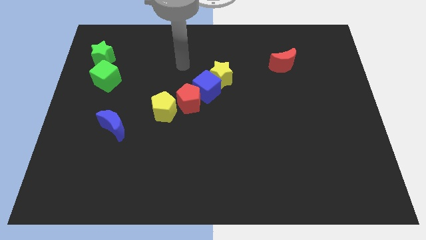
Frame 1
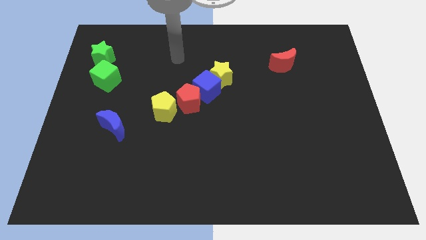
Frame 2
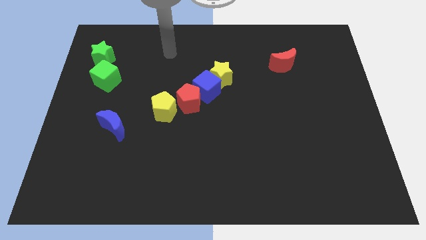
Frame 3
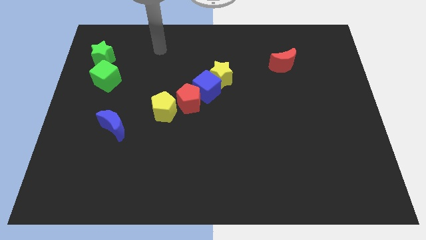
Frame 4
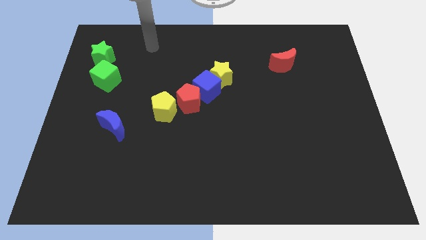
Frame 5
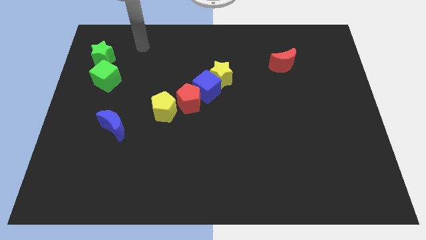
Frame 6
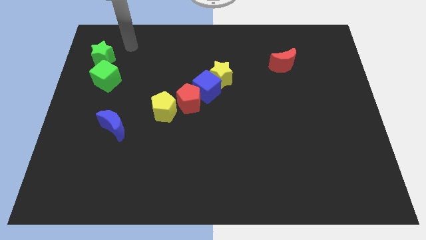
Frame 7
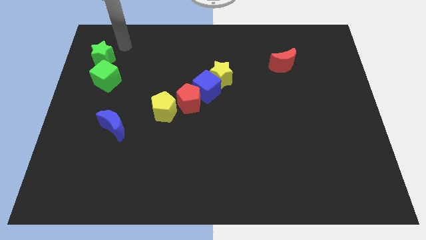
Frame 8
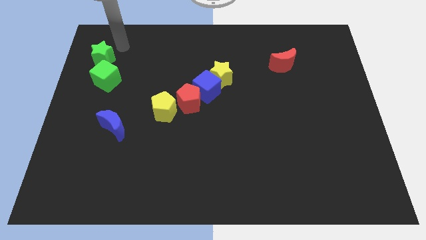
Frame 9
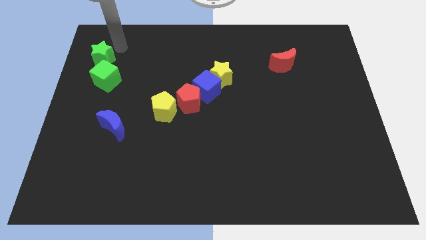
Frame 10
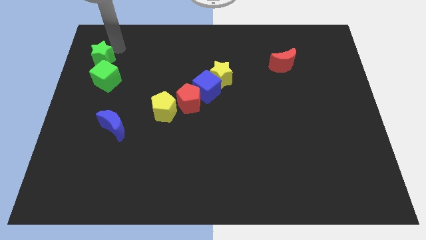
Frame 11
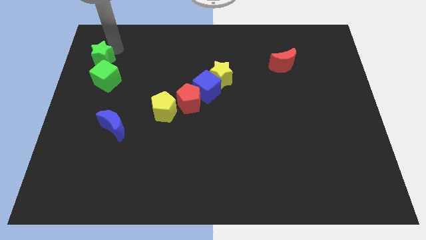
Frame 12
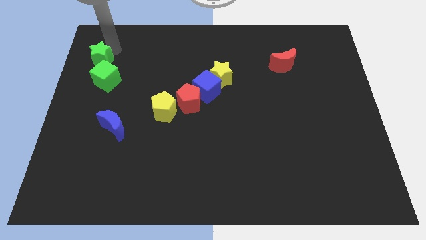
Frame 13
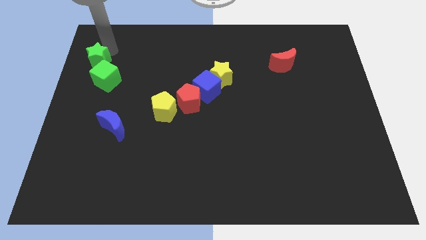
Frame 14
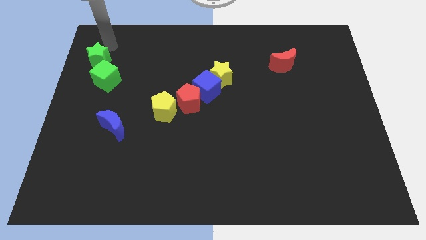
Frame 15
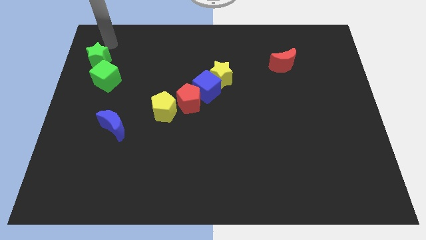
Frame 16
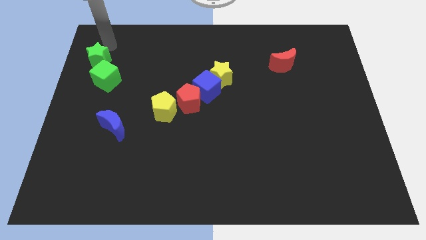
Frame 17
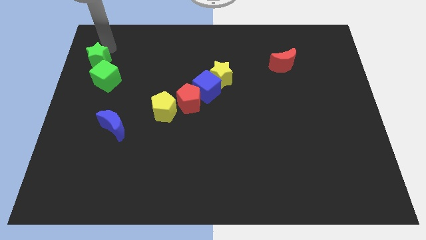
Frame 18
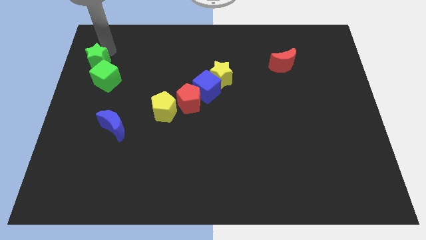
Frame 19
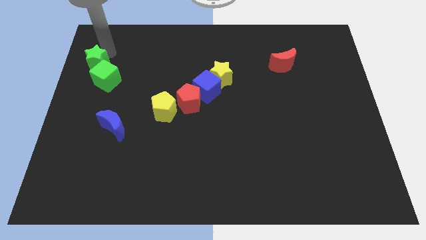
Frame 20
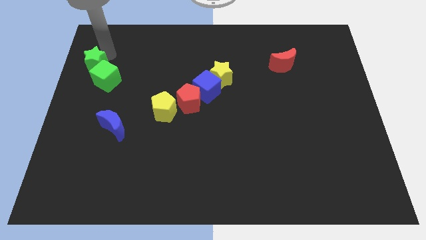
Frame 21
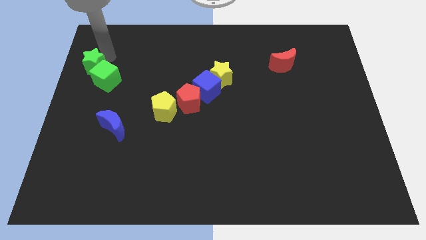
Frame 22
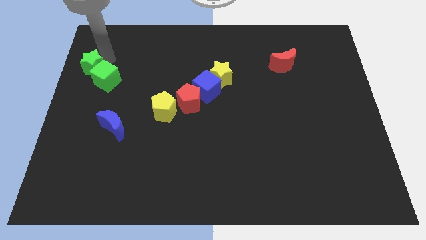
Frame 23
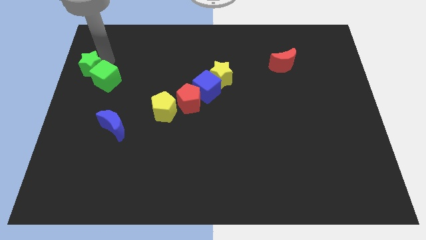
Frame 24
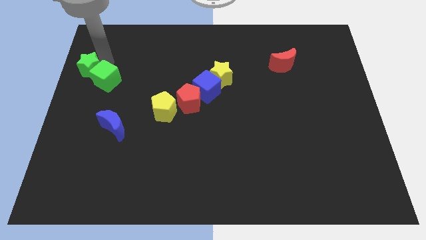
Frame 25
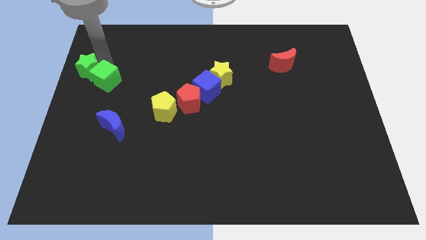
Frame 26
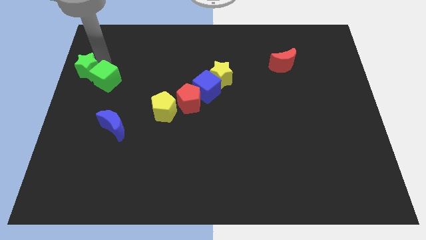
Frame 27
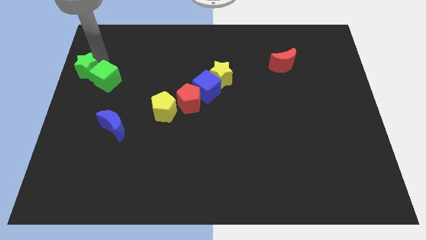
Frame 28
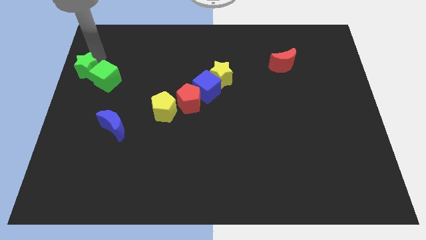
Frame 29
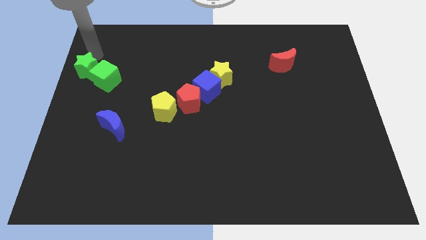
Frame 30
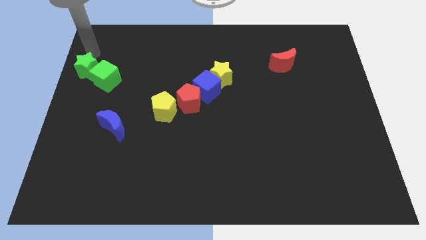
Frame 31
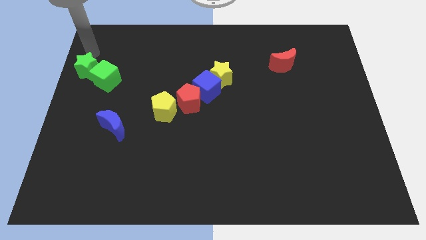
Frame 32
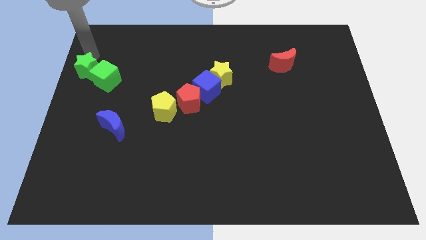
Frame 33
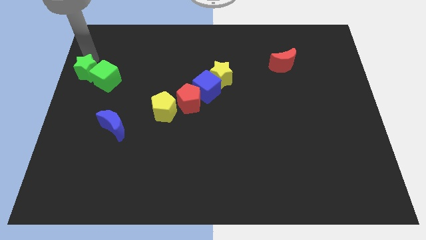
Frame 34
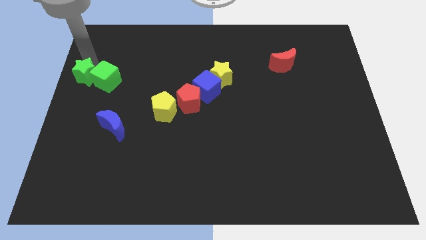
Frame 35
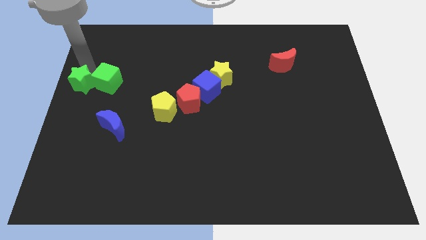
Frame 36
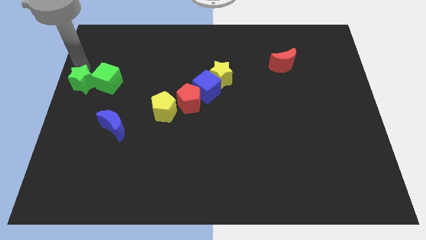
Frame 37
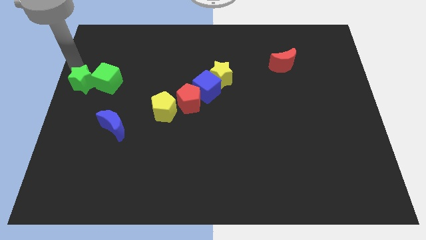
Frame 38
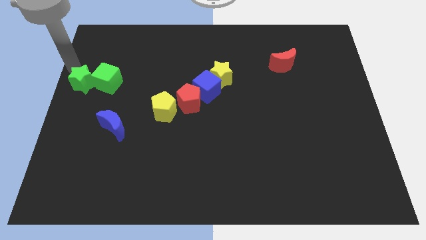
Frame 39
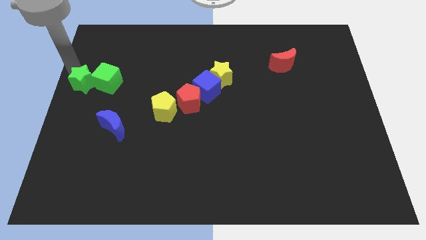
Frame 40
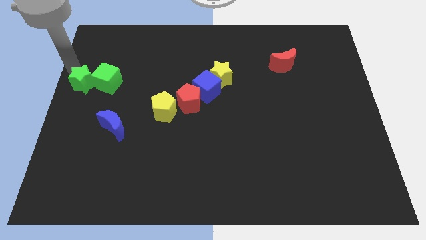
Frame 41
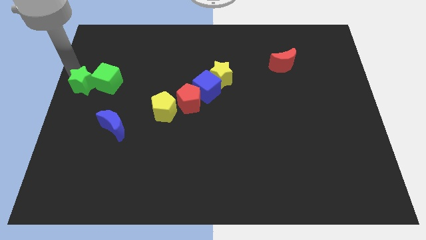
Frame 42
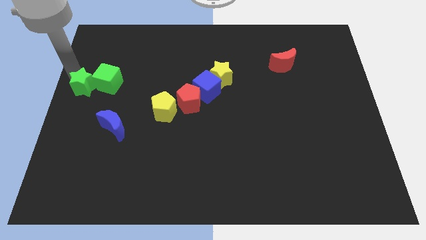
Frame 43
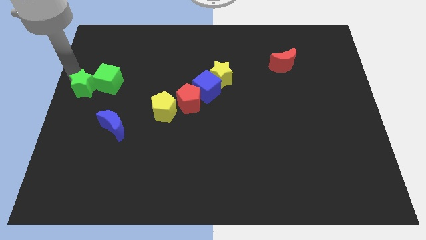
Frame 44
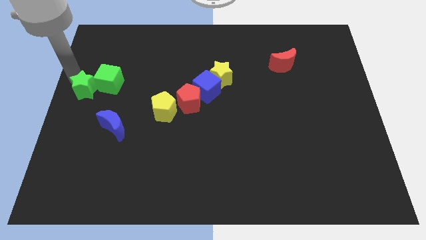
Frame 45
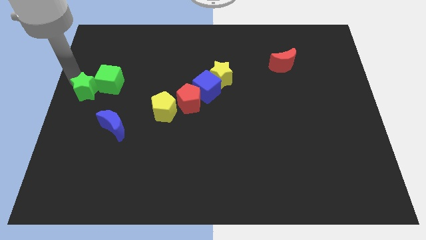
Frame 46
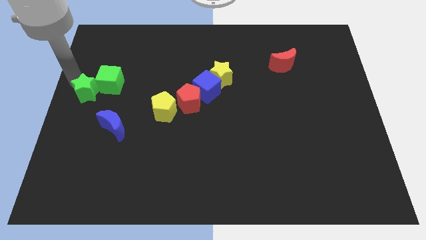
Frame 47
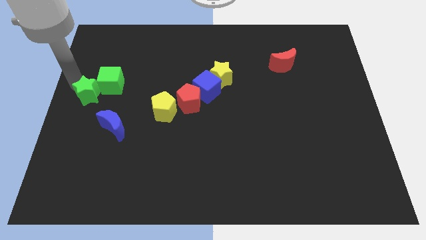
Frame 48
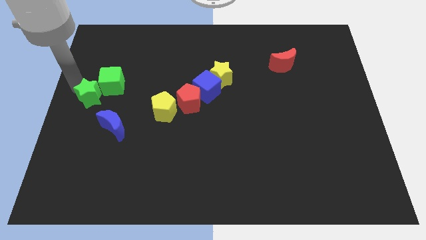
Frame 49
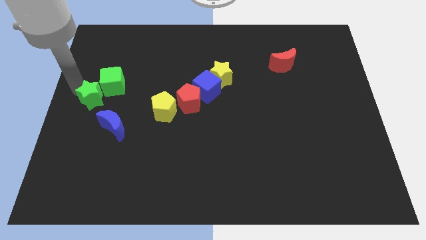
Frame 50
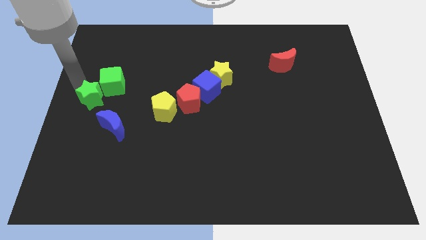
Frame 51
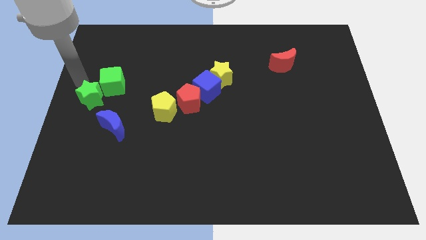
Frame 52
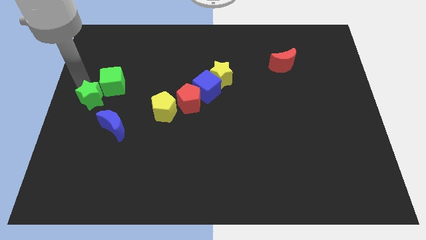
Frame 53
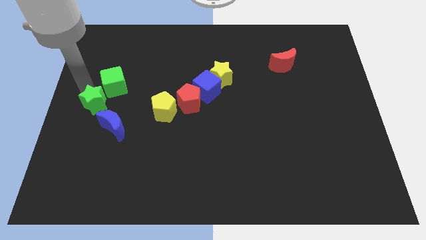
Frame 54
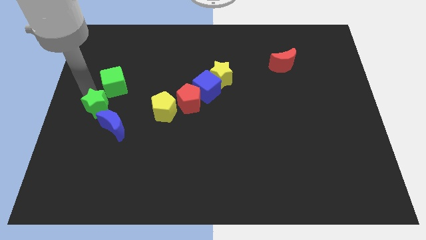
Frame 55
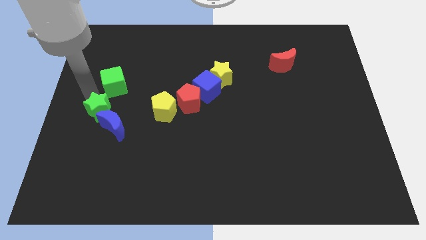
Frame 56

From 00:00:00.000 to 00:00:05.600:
slide the green star towards the blue moon
